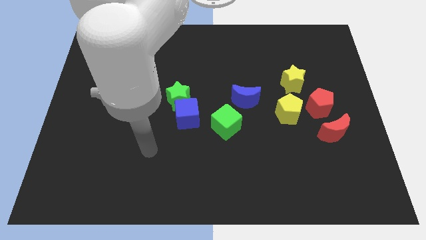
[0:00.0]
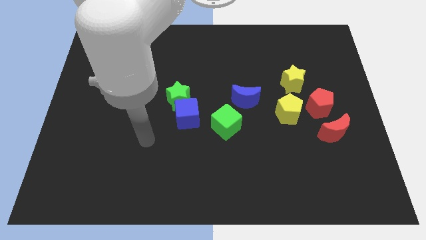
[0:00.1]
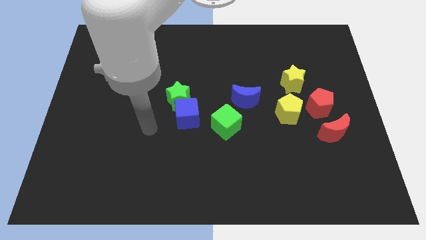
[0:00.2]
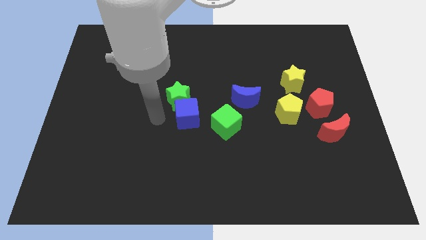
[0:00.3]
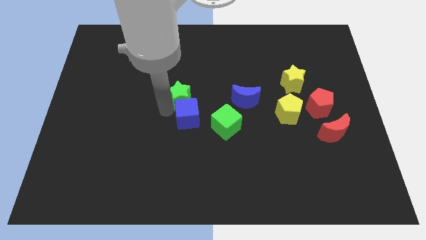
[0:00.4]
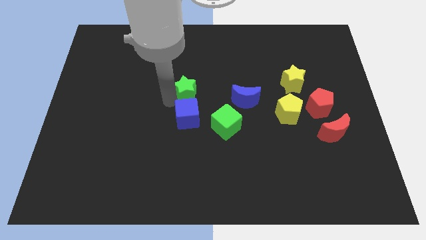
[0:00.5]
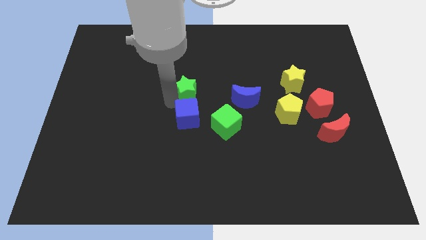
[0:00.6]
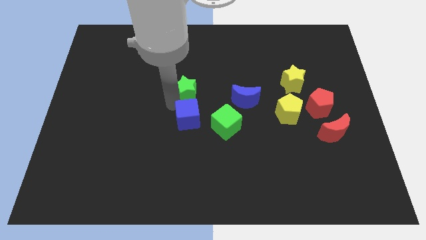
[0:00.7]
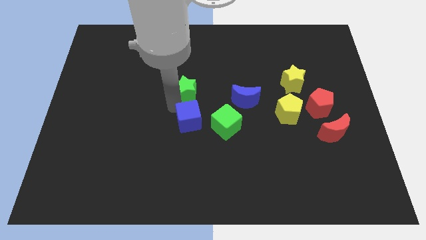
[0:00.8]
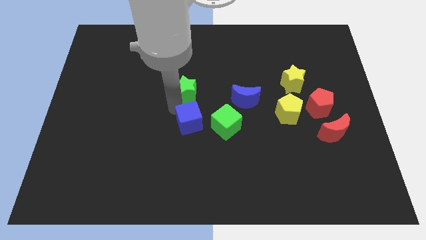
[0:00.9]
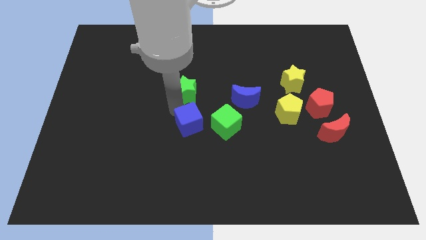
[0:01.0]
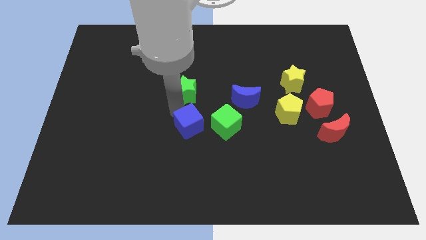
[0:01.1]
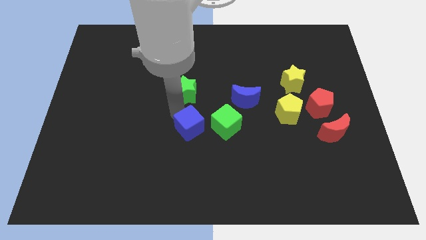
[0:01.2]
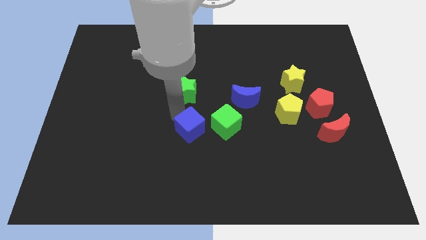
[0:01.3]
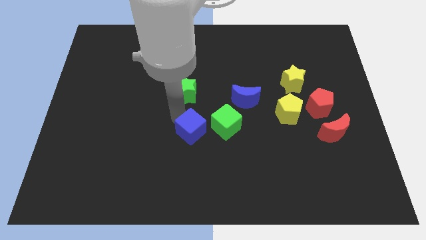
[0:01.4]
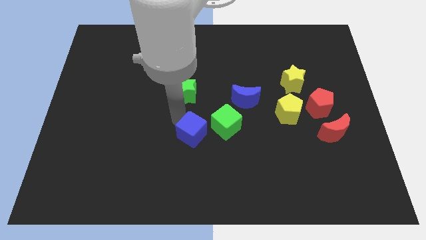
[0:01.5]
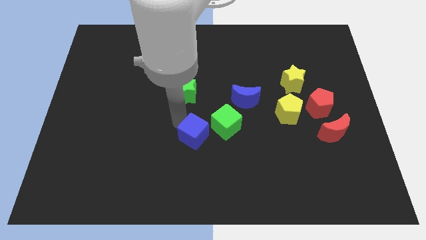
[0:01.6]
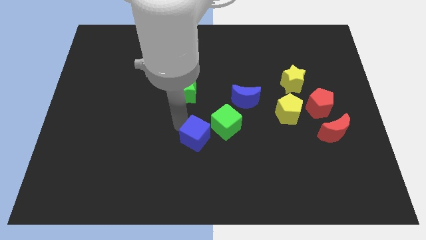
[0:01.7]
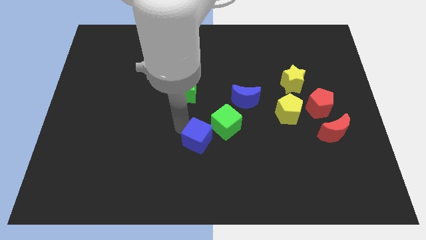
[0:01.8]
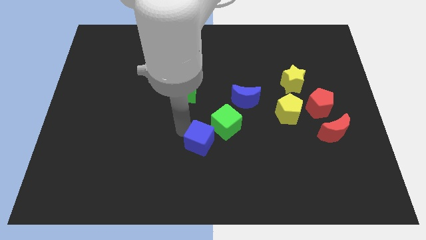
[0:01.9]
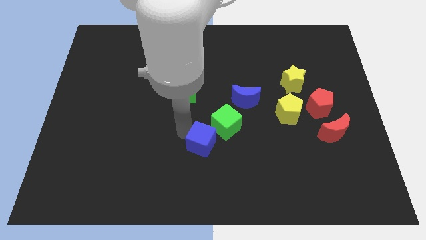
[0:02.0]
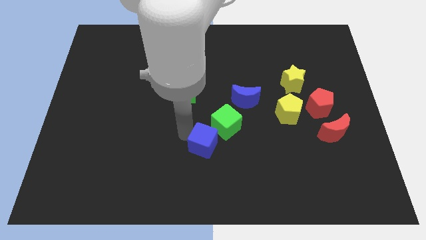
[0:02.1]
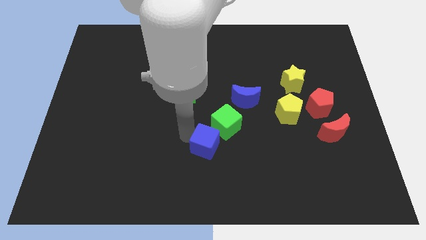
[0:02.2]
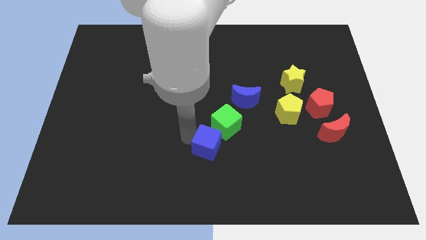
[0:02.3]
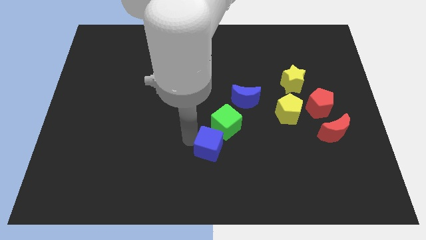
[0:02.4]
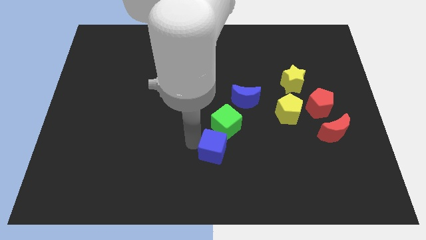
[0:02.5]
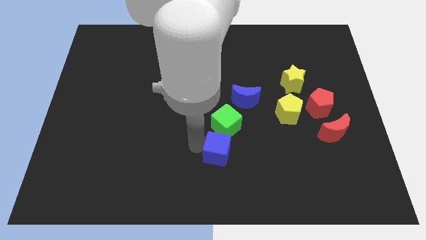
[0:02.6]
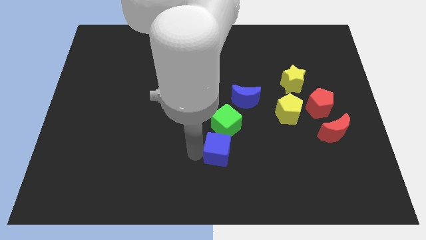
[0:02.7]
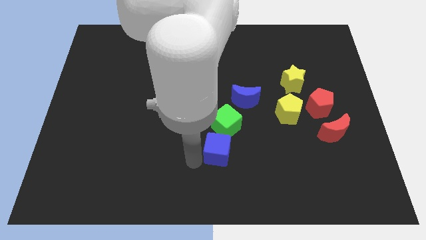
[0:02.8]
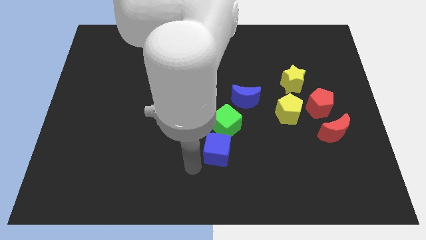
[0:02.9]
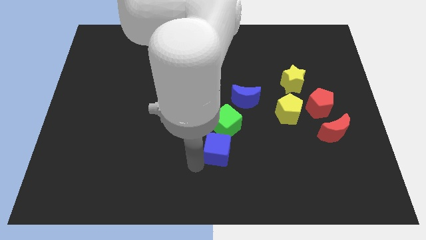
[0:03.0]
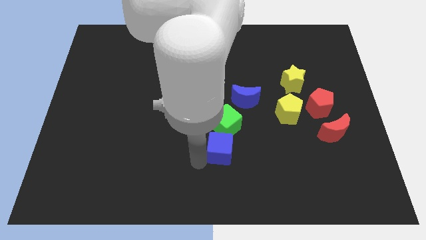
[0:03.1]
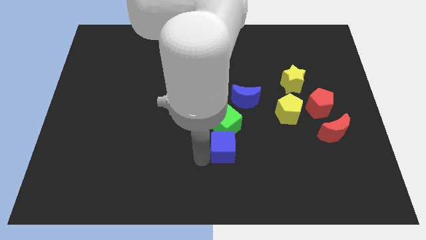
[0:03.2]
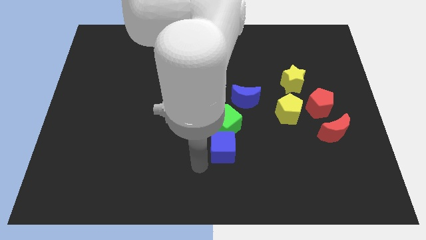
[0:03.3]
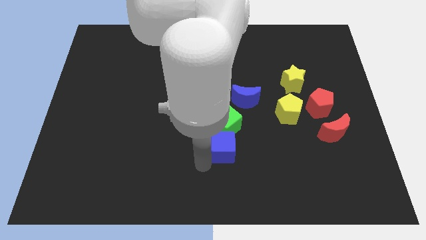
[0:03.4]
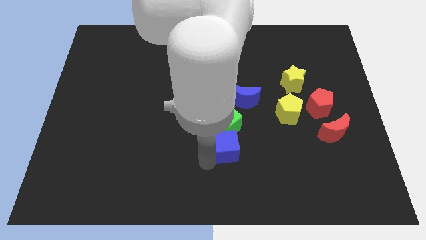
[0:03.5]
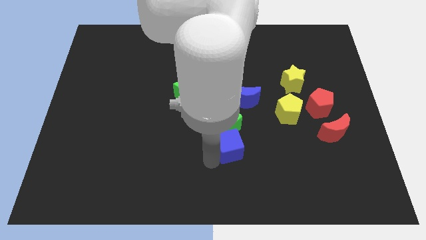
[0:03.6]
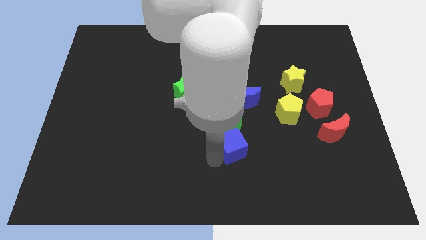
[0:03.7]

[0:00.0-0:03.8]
move the blue cube to the right a little bit

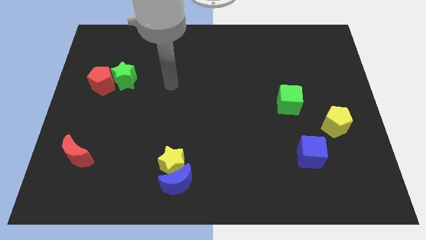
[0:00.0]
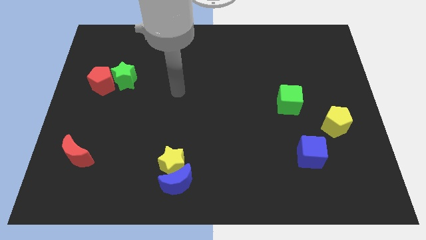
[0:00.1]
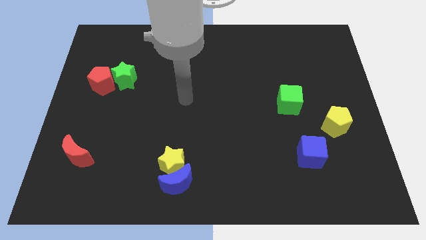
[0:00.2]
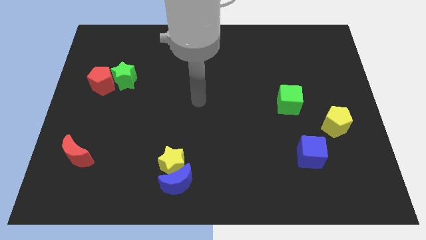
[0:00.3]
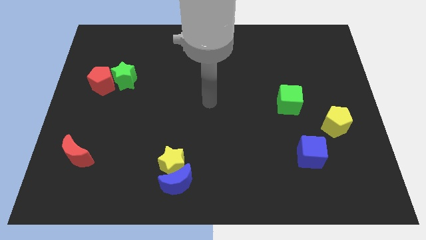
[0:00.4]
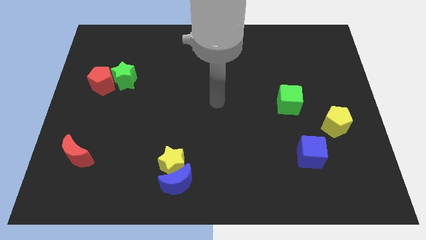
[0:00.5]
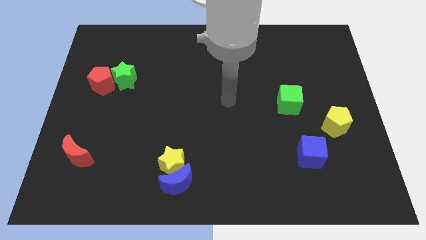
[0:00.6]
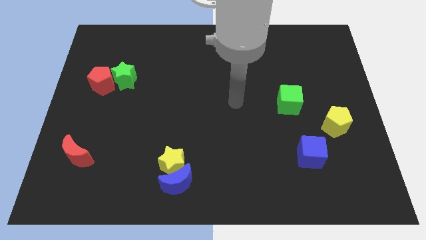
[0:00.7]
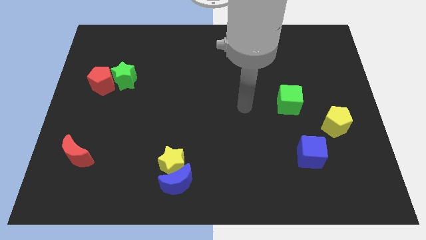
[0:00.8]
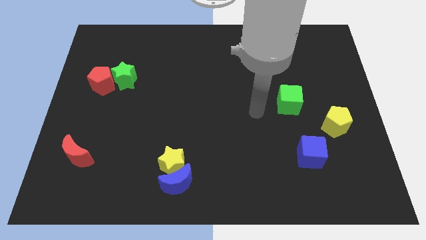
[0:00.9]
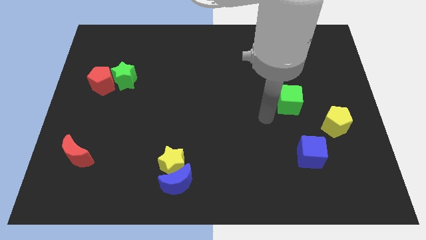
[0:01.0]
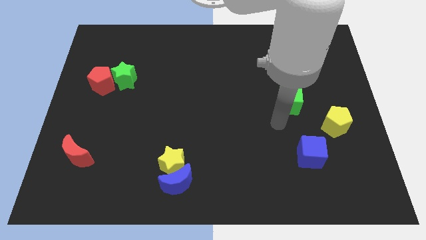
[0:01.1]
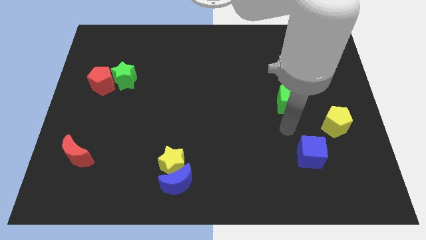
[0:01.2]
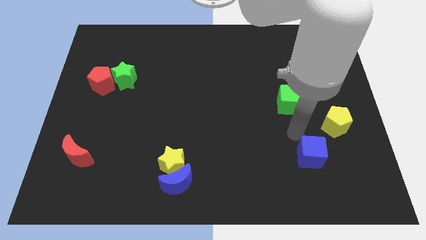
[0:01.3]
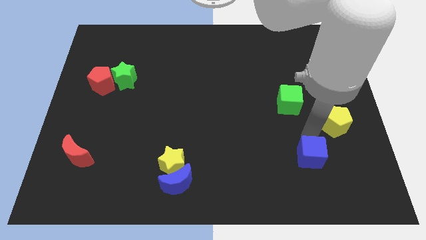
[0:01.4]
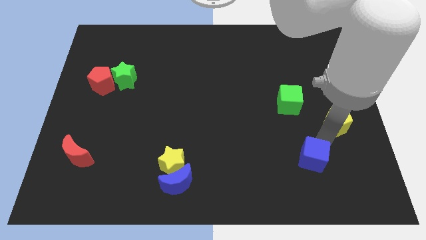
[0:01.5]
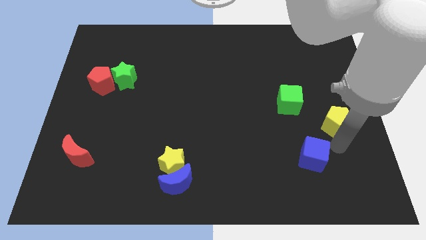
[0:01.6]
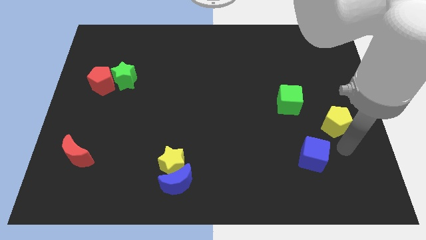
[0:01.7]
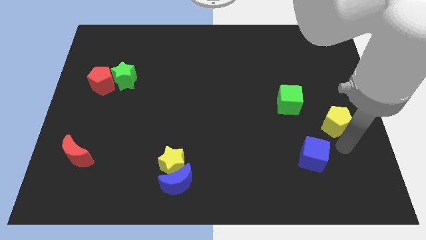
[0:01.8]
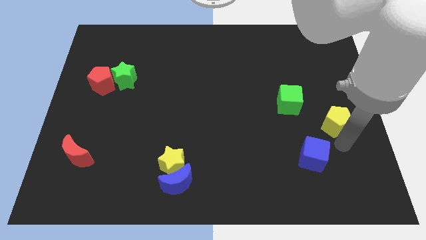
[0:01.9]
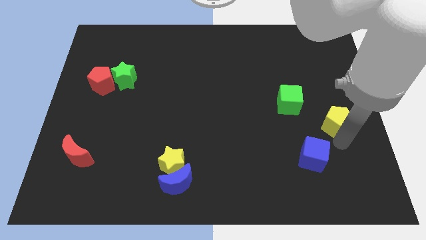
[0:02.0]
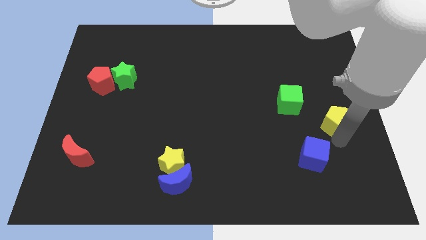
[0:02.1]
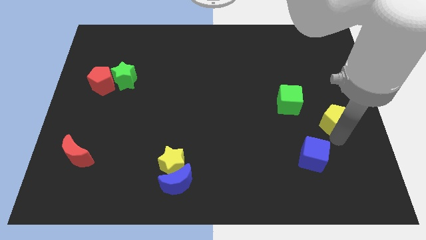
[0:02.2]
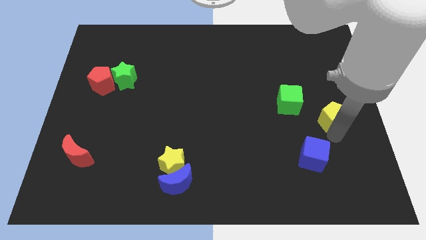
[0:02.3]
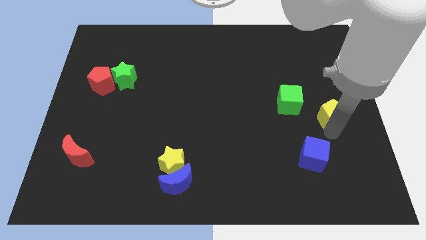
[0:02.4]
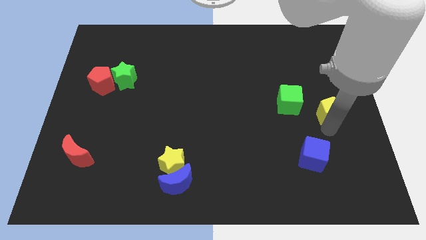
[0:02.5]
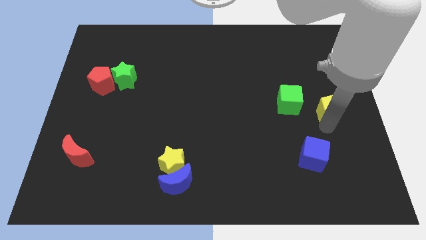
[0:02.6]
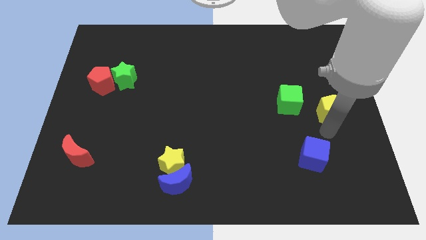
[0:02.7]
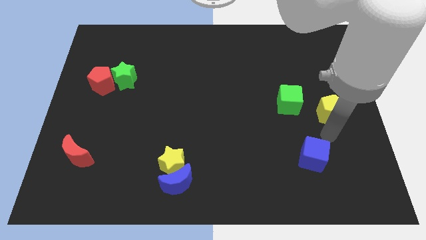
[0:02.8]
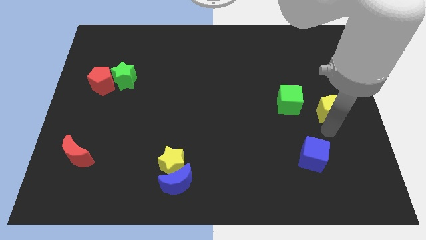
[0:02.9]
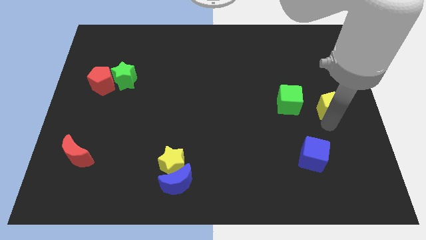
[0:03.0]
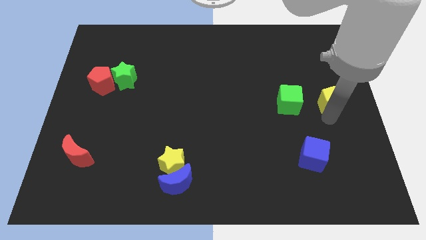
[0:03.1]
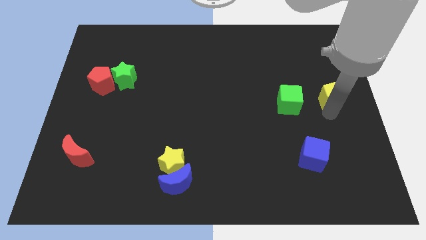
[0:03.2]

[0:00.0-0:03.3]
push the yellow pentagon somewhat upwards

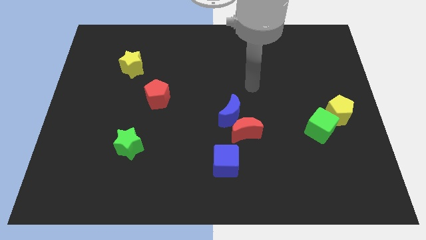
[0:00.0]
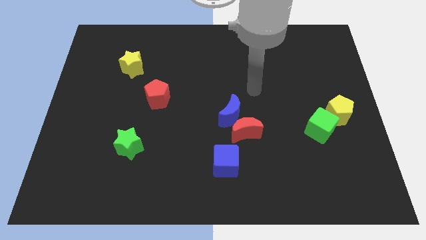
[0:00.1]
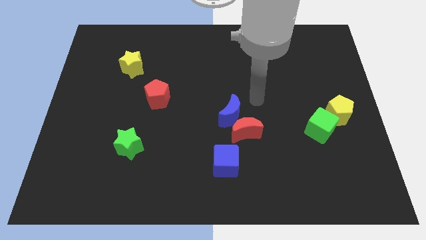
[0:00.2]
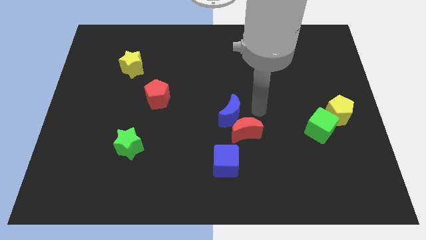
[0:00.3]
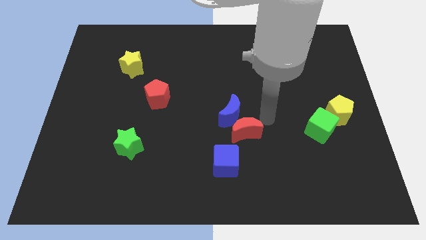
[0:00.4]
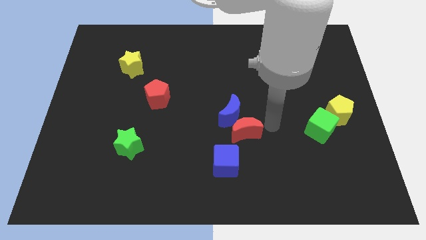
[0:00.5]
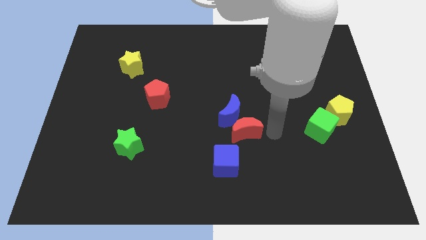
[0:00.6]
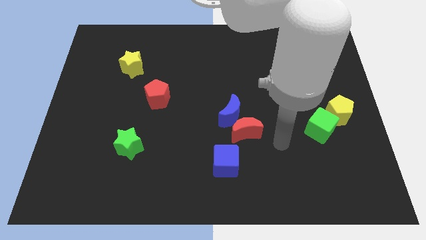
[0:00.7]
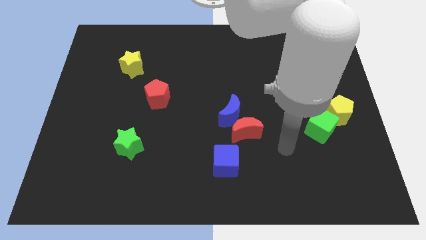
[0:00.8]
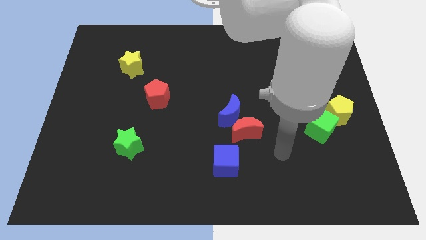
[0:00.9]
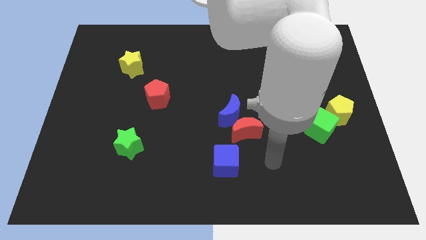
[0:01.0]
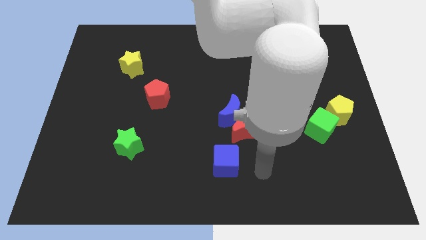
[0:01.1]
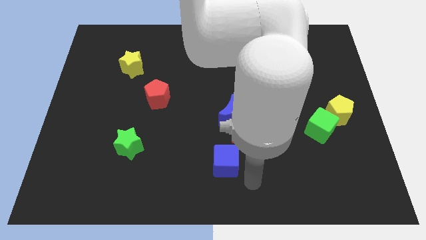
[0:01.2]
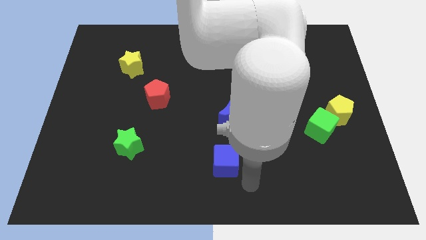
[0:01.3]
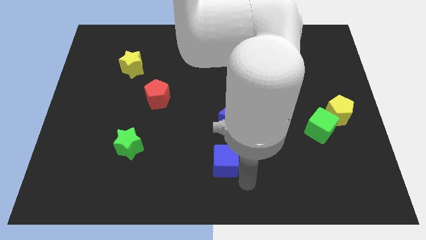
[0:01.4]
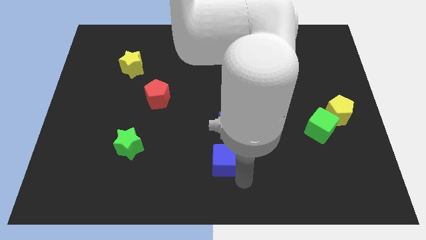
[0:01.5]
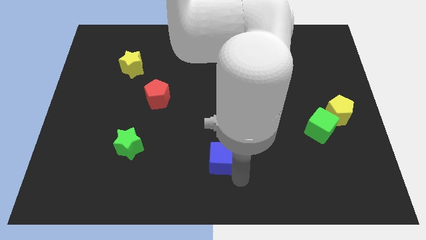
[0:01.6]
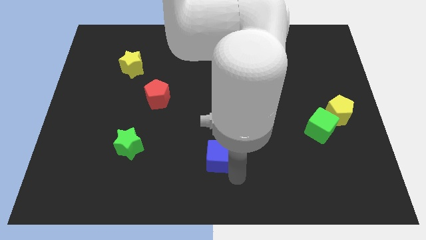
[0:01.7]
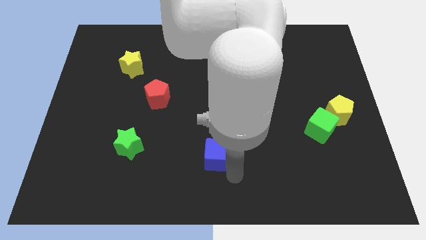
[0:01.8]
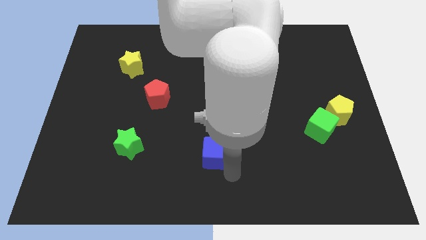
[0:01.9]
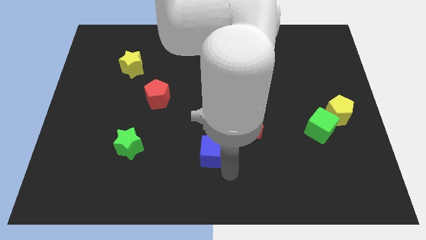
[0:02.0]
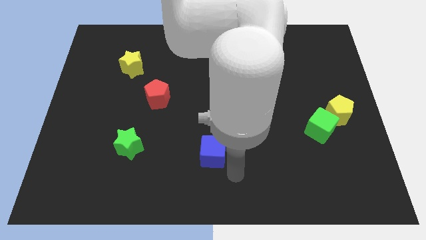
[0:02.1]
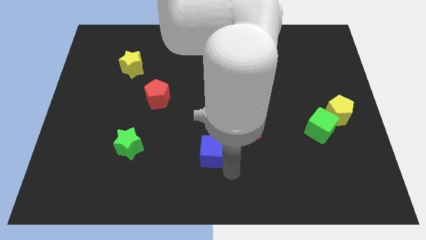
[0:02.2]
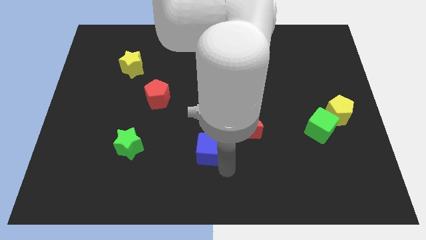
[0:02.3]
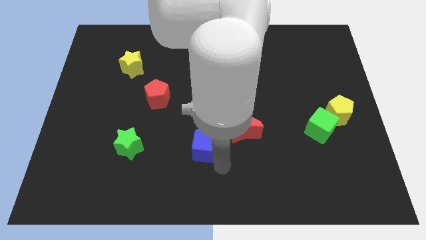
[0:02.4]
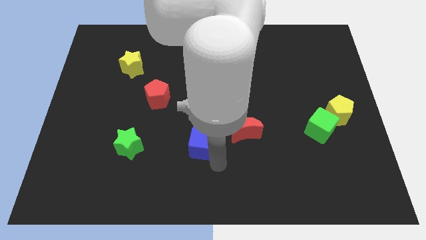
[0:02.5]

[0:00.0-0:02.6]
move the blue cube diagonally upwards and to the left somewhat
